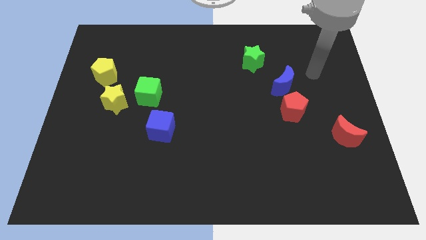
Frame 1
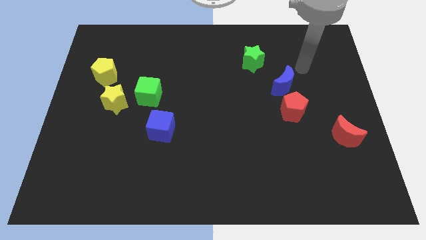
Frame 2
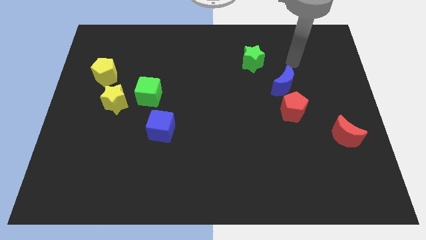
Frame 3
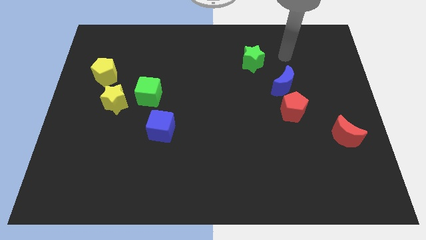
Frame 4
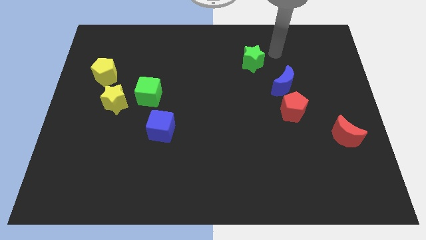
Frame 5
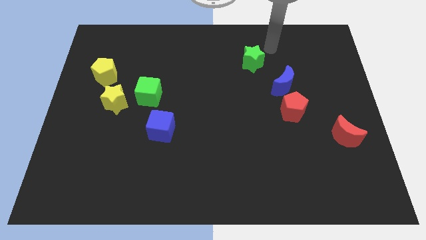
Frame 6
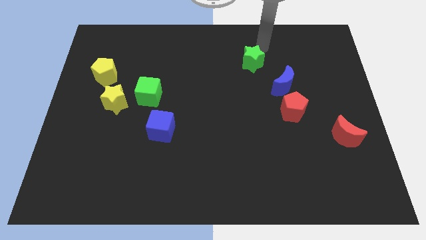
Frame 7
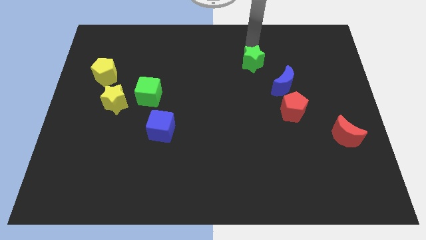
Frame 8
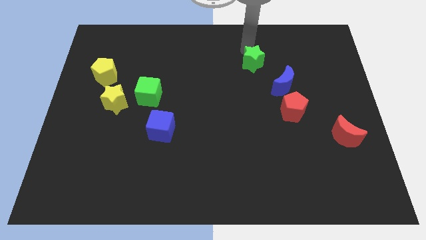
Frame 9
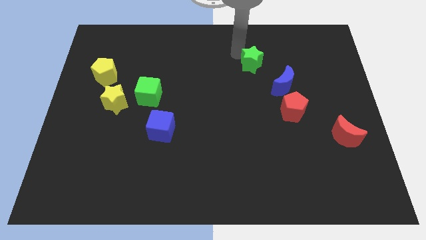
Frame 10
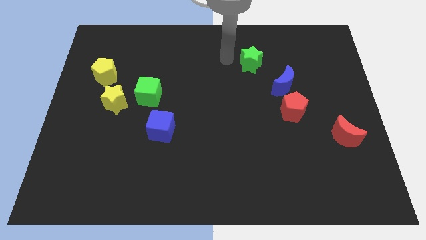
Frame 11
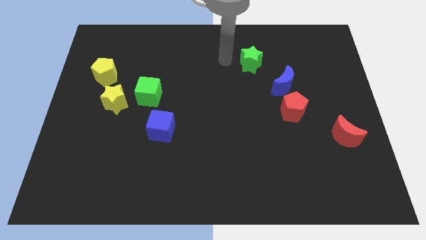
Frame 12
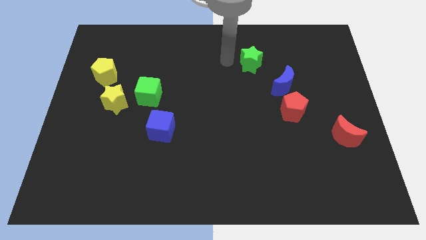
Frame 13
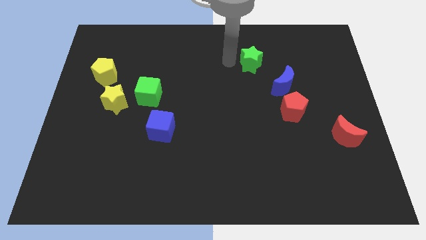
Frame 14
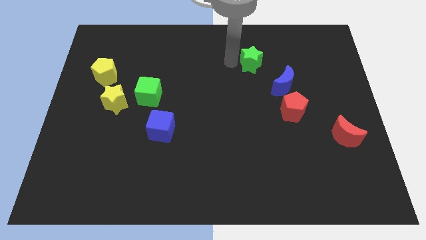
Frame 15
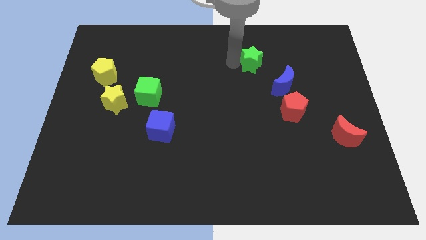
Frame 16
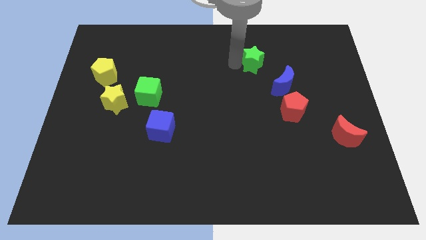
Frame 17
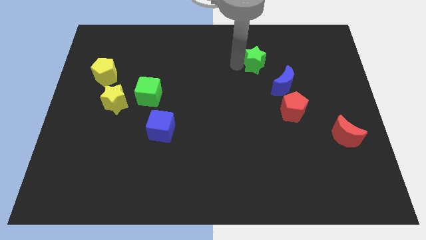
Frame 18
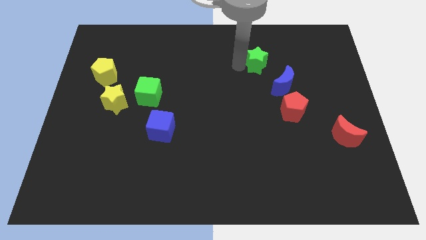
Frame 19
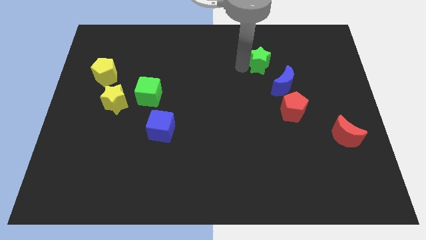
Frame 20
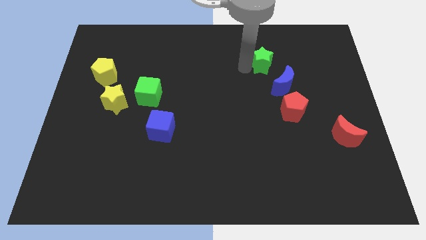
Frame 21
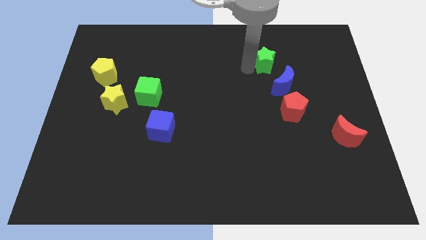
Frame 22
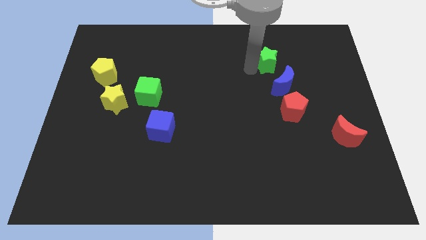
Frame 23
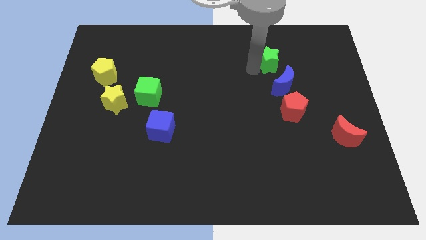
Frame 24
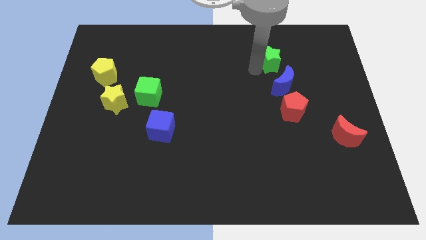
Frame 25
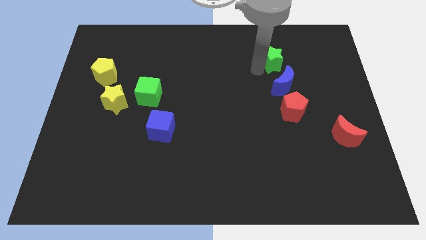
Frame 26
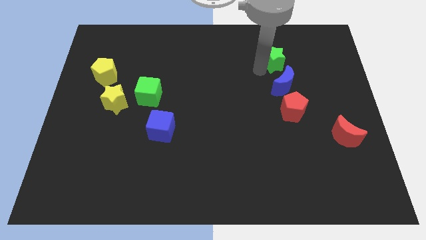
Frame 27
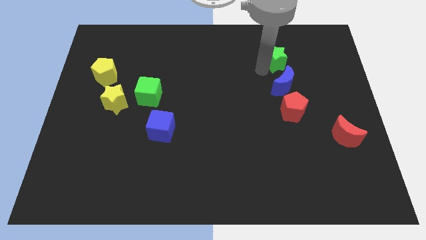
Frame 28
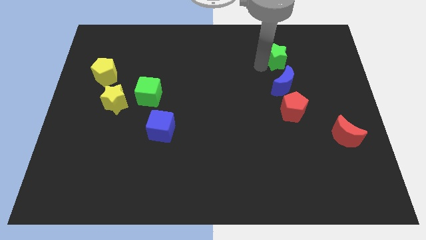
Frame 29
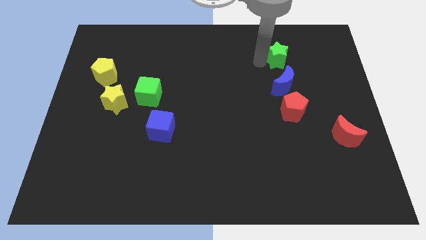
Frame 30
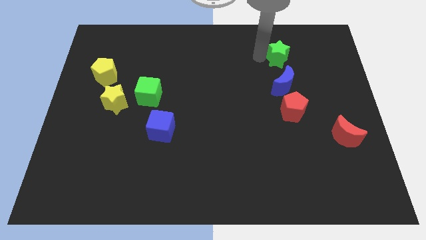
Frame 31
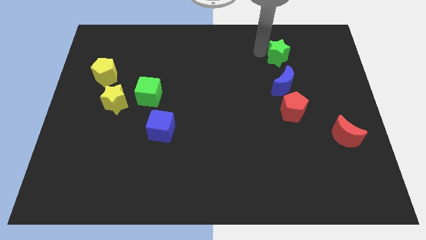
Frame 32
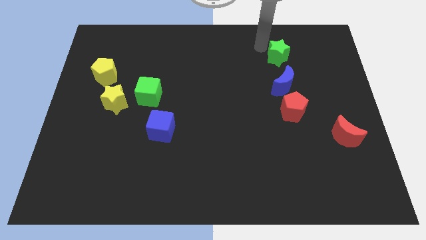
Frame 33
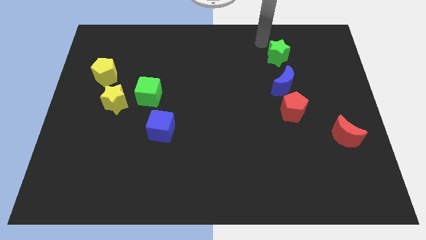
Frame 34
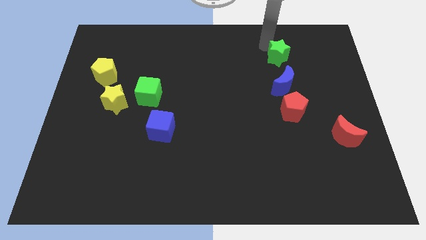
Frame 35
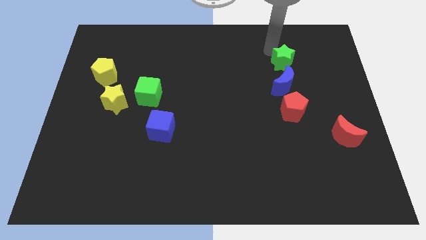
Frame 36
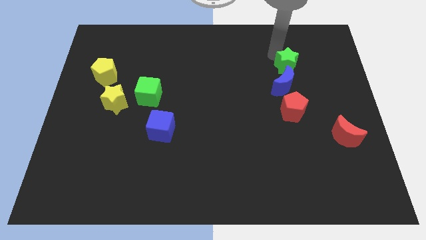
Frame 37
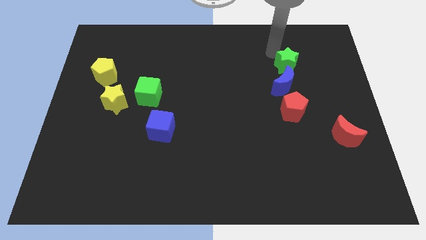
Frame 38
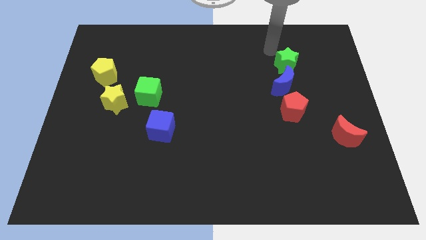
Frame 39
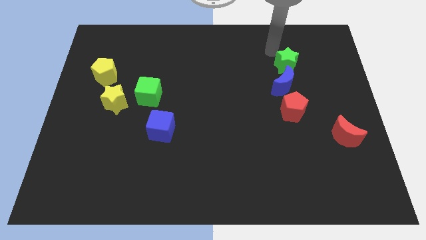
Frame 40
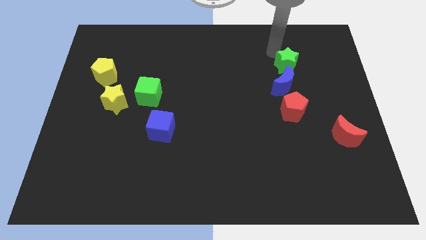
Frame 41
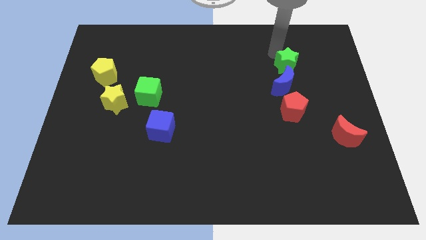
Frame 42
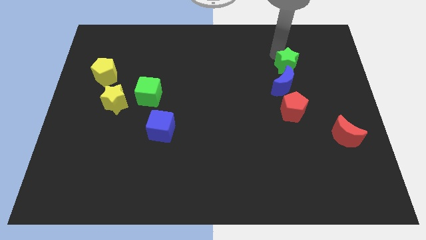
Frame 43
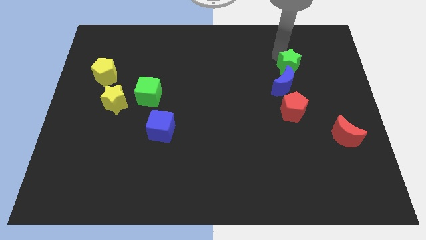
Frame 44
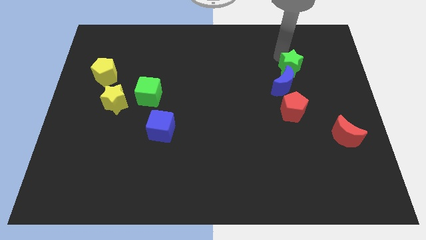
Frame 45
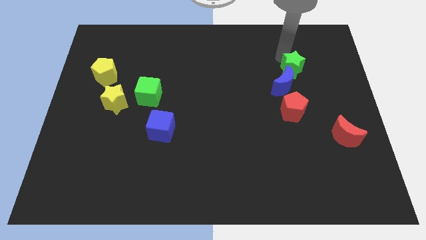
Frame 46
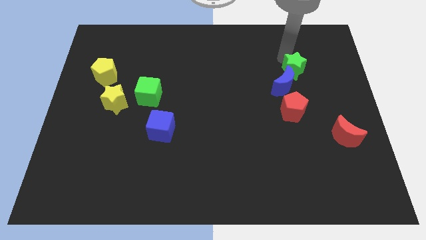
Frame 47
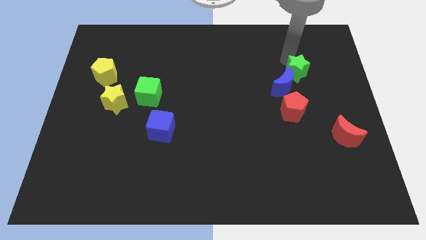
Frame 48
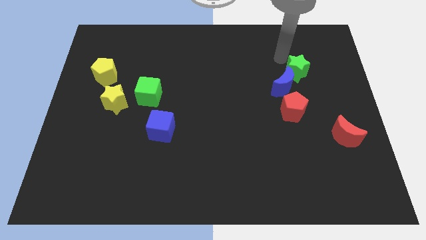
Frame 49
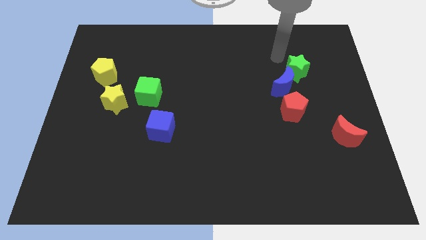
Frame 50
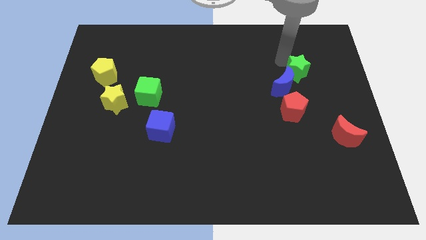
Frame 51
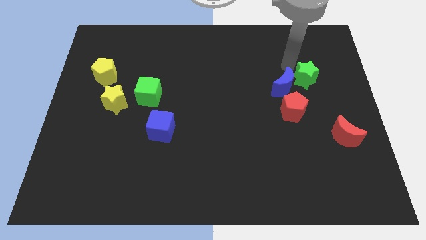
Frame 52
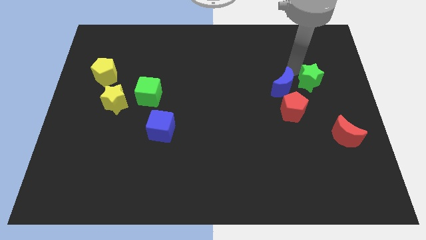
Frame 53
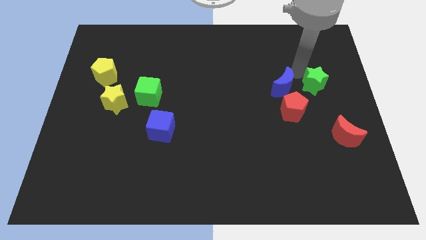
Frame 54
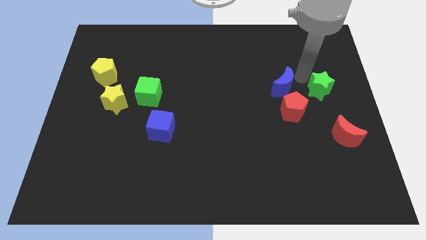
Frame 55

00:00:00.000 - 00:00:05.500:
push the green star to the right side of the board

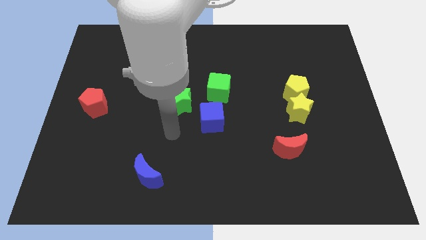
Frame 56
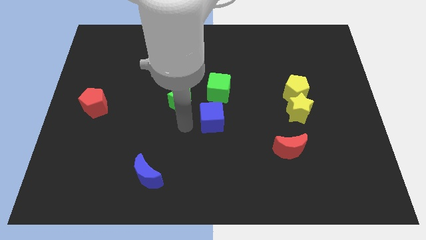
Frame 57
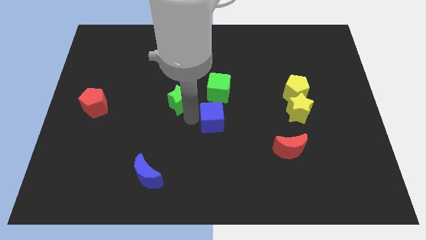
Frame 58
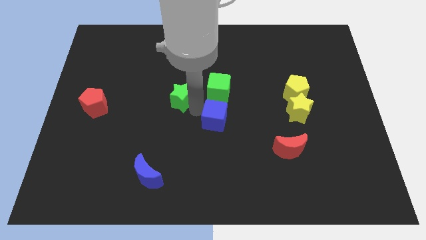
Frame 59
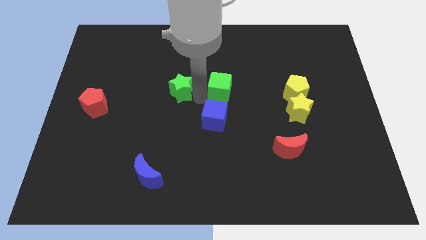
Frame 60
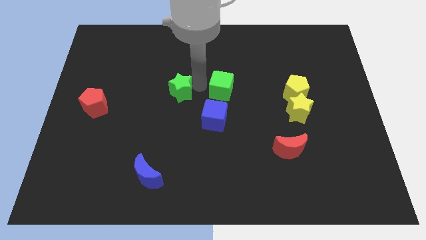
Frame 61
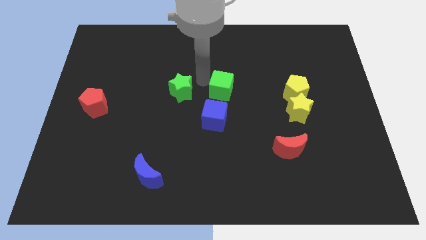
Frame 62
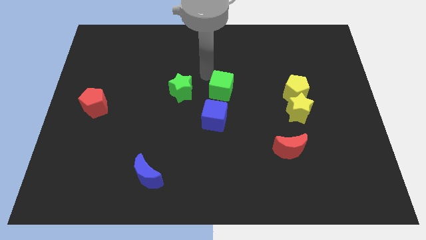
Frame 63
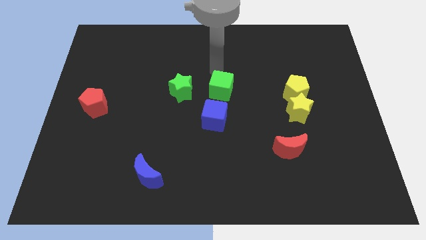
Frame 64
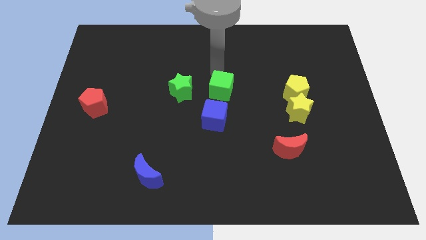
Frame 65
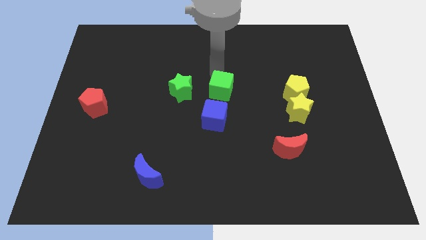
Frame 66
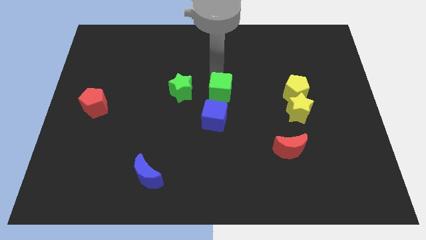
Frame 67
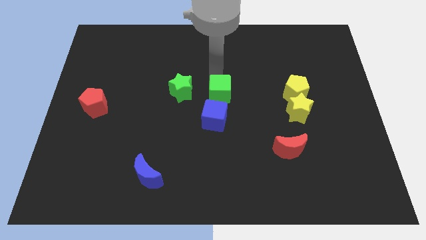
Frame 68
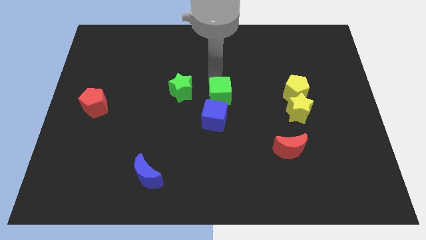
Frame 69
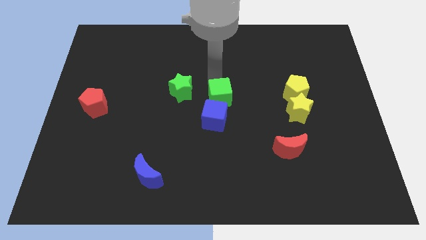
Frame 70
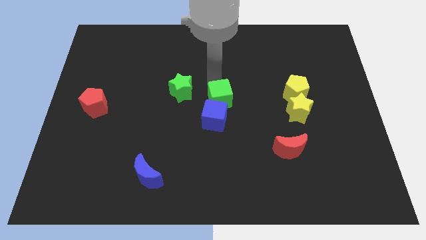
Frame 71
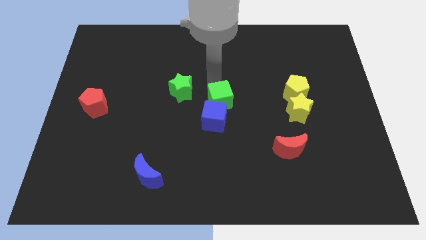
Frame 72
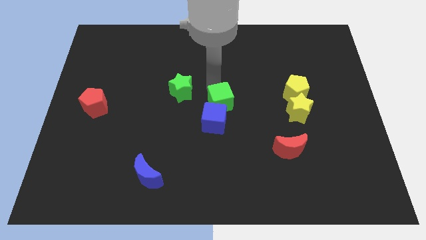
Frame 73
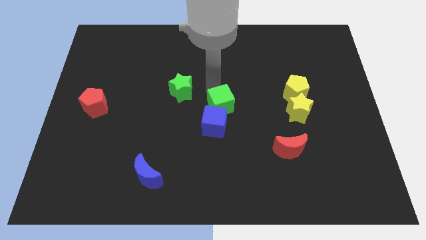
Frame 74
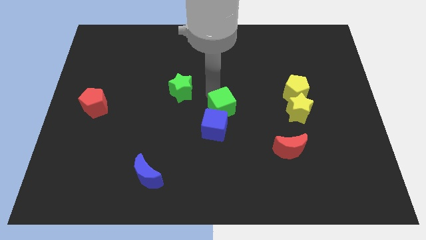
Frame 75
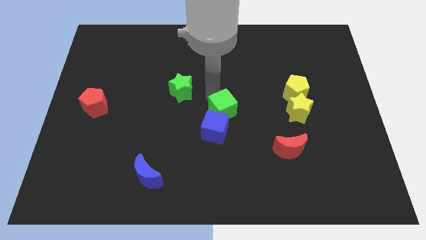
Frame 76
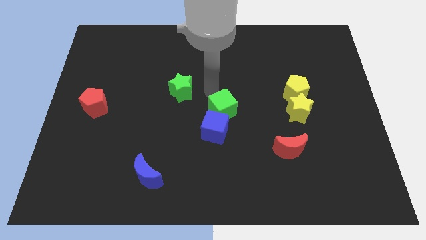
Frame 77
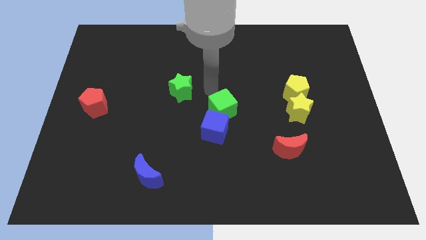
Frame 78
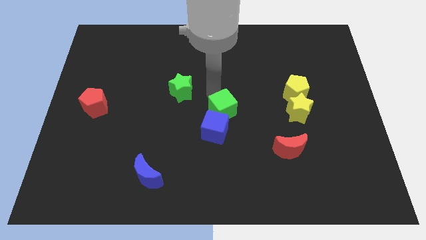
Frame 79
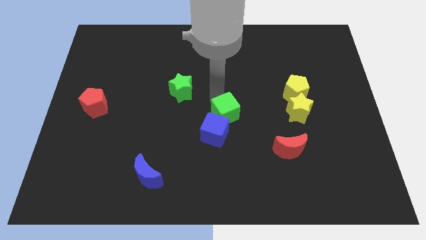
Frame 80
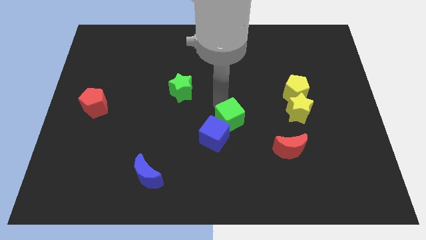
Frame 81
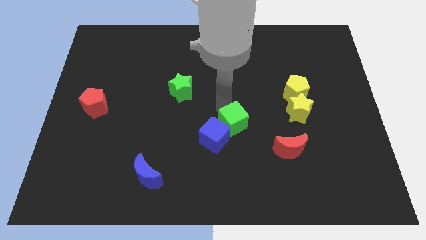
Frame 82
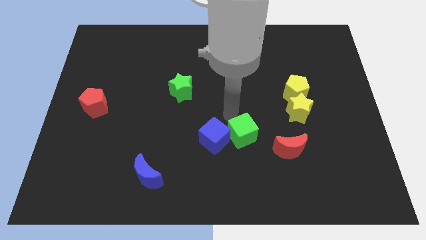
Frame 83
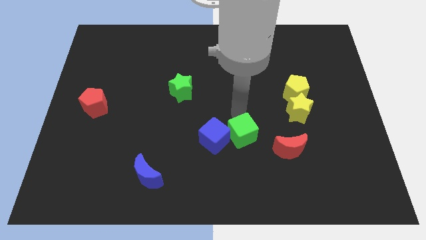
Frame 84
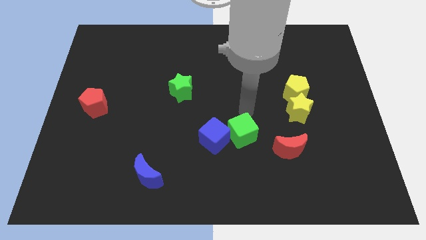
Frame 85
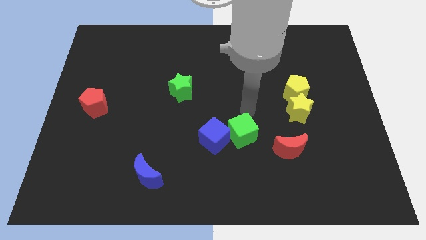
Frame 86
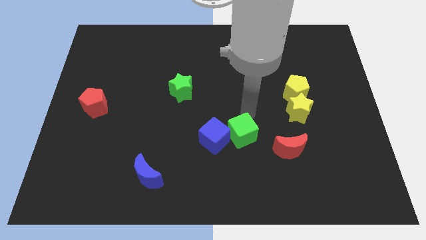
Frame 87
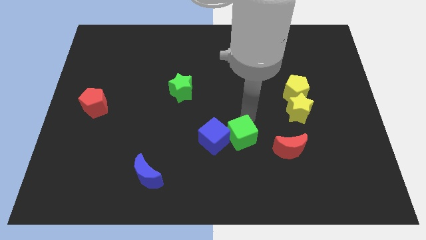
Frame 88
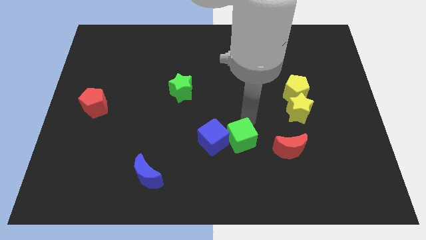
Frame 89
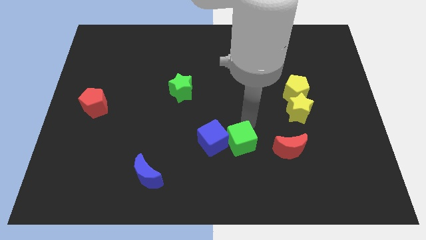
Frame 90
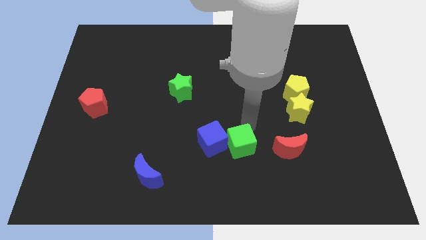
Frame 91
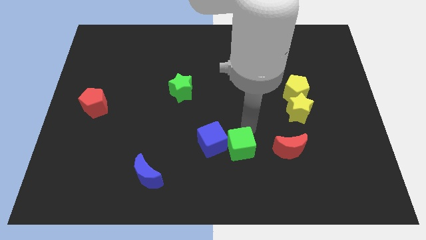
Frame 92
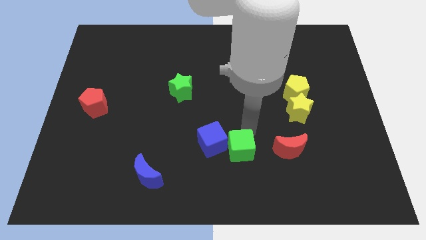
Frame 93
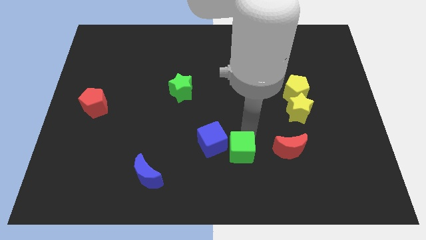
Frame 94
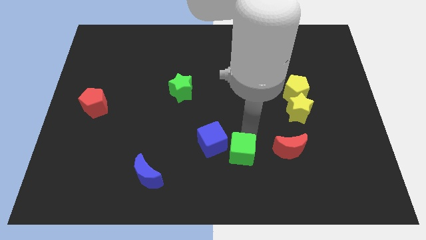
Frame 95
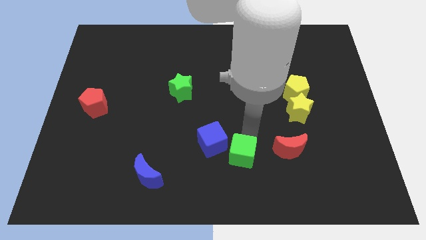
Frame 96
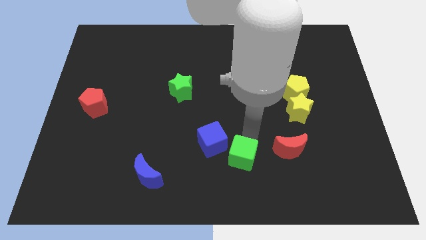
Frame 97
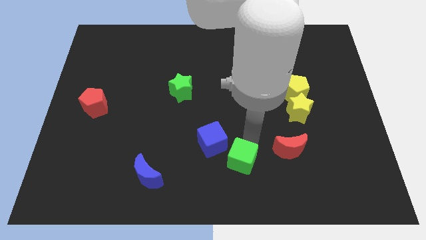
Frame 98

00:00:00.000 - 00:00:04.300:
move the green cube to the bottom side
